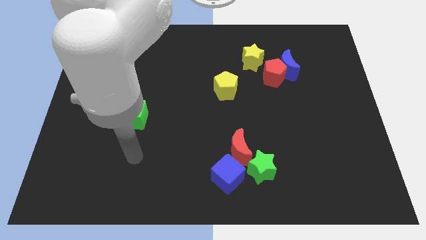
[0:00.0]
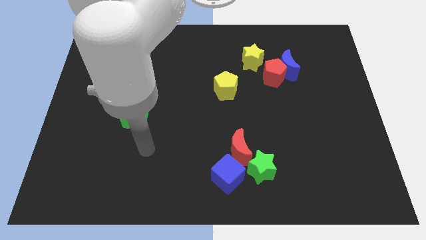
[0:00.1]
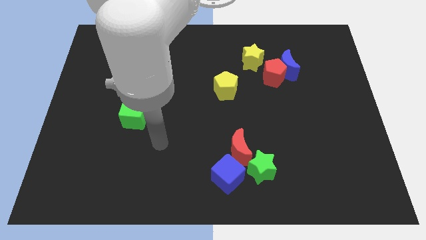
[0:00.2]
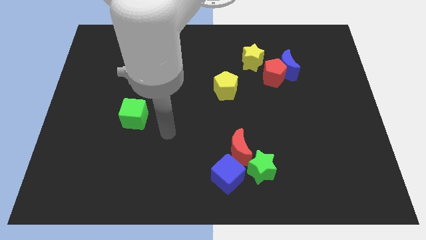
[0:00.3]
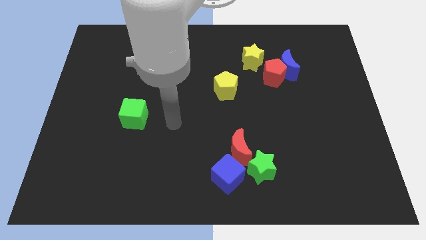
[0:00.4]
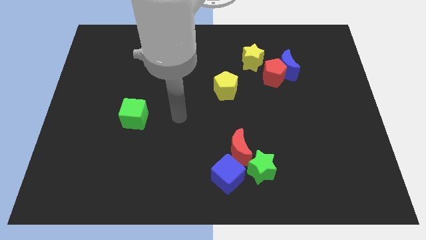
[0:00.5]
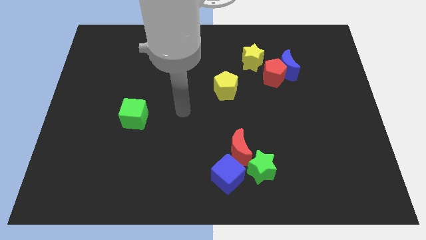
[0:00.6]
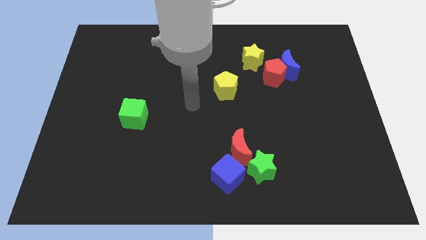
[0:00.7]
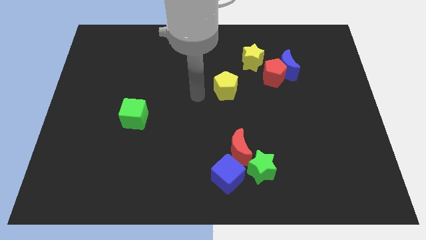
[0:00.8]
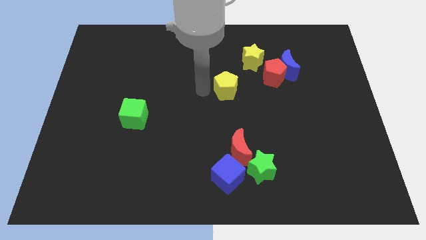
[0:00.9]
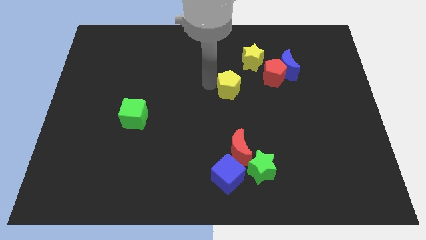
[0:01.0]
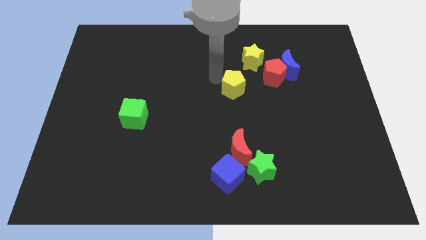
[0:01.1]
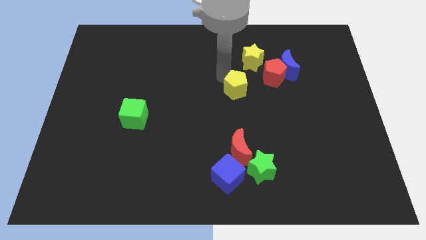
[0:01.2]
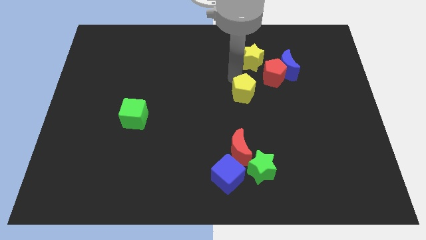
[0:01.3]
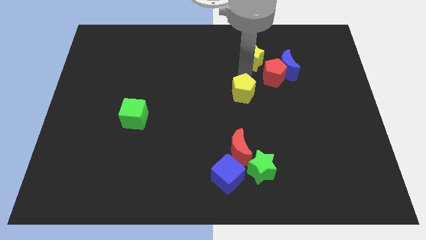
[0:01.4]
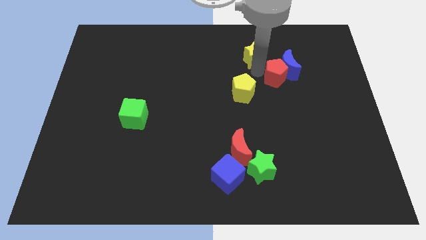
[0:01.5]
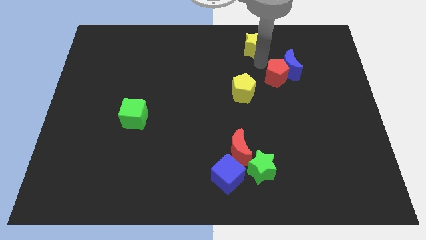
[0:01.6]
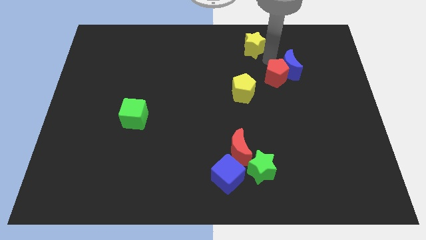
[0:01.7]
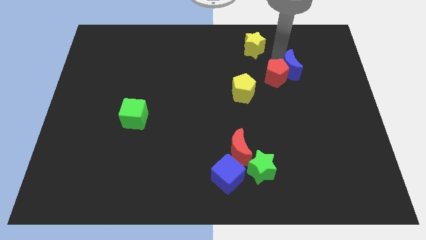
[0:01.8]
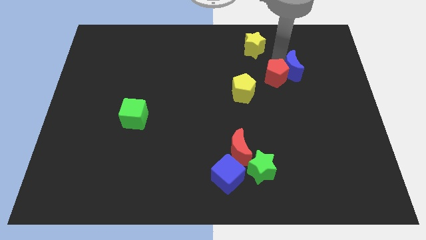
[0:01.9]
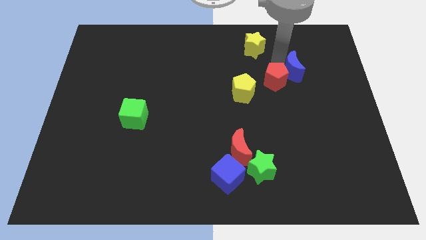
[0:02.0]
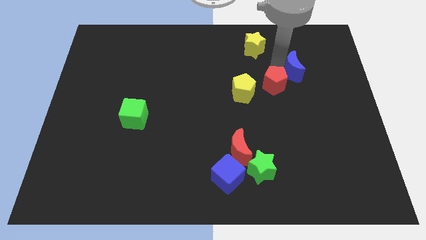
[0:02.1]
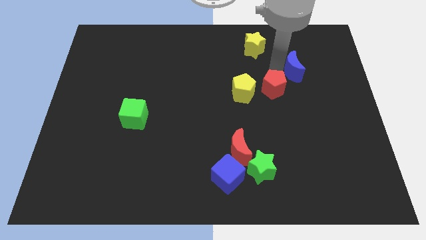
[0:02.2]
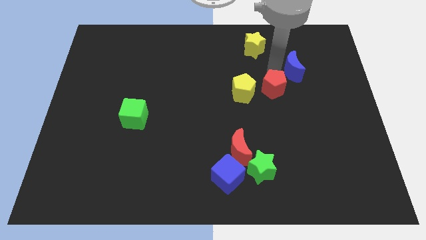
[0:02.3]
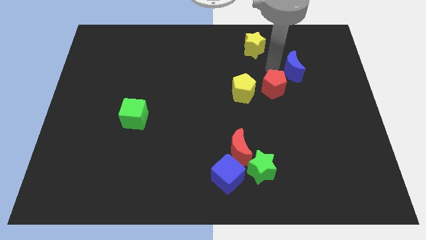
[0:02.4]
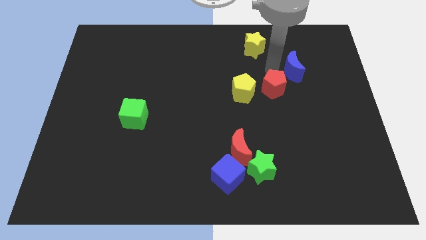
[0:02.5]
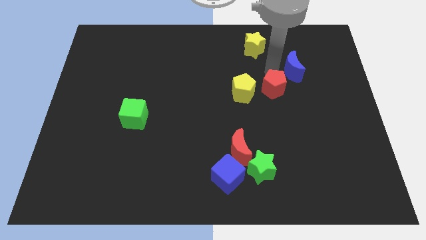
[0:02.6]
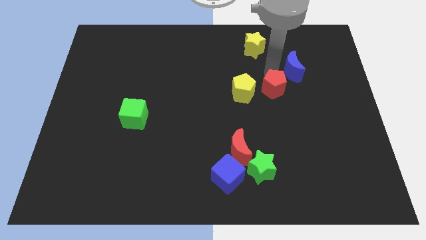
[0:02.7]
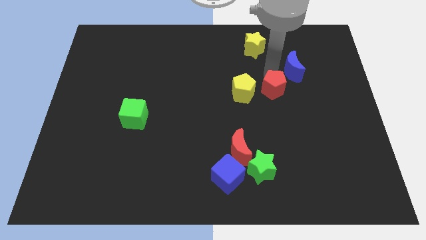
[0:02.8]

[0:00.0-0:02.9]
move the red pentagon away from the blue moon and yellow star

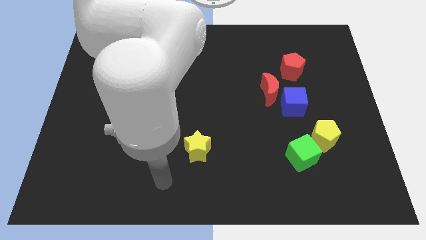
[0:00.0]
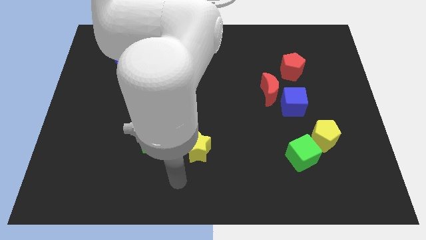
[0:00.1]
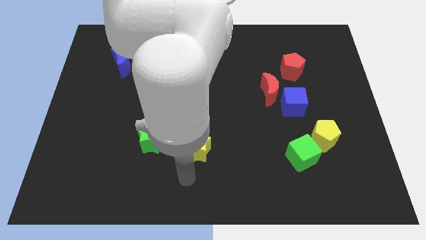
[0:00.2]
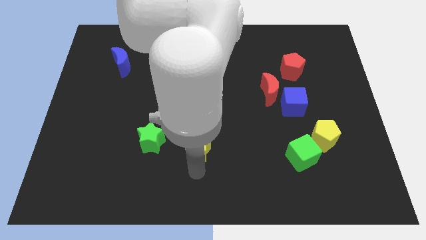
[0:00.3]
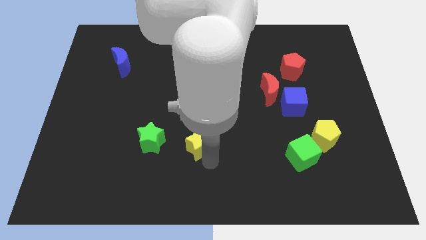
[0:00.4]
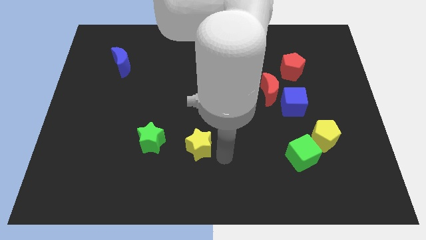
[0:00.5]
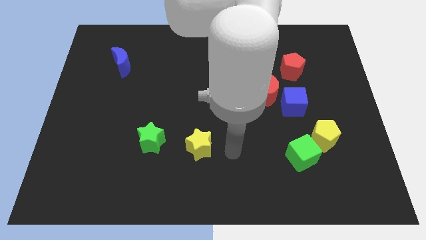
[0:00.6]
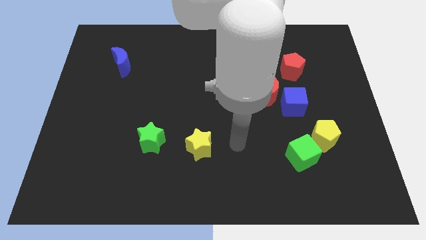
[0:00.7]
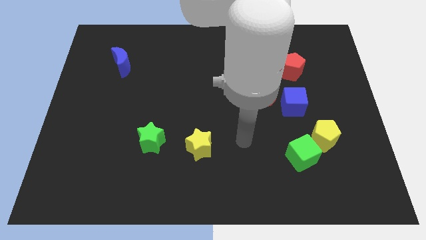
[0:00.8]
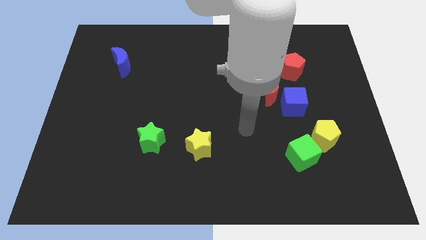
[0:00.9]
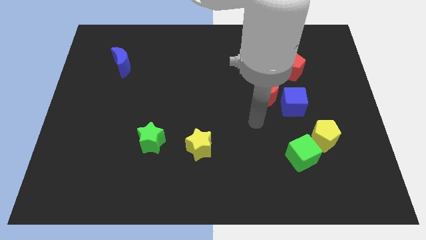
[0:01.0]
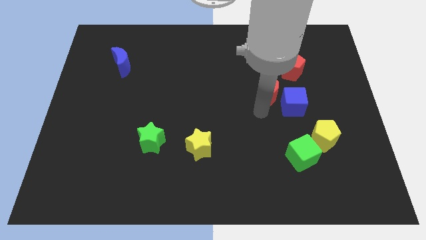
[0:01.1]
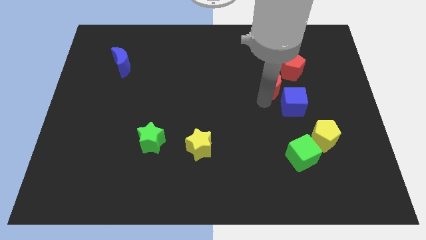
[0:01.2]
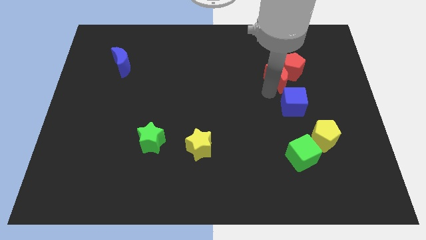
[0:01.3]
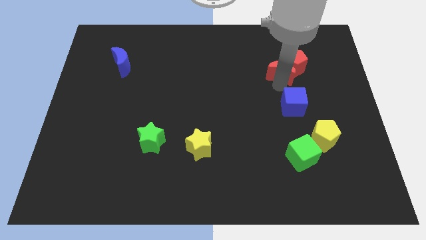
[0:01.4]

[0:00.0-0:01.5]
pull the blue cube apart from the red moon

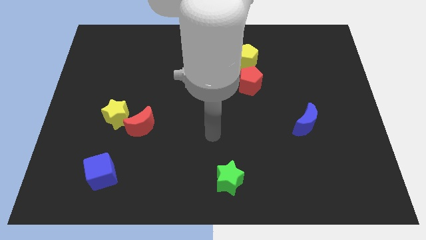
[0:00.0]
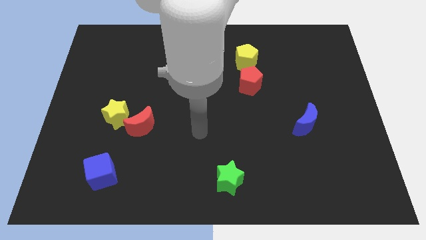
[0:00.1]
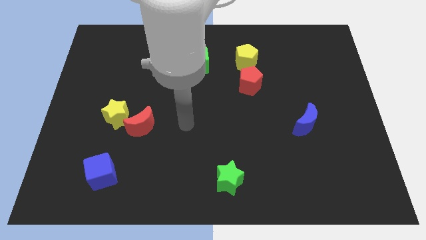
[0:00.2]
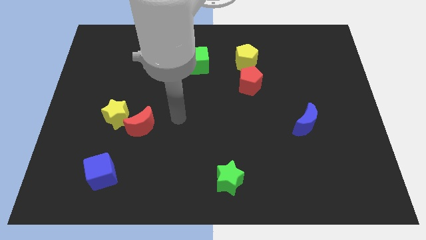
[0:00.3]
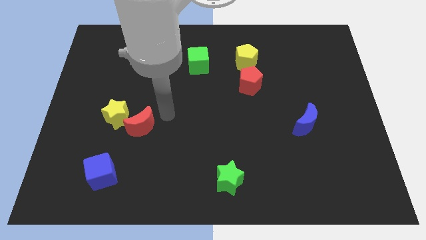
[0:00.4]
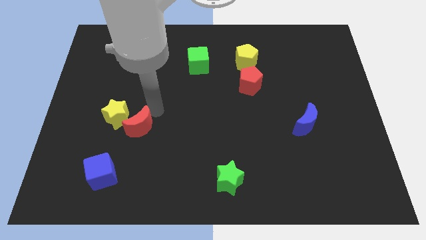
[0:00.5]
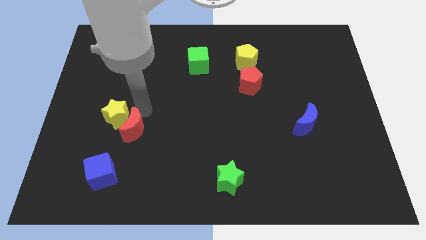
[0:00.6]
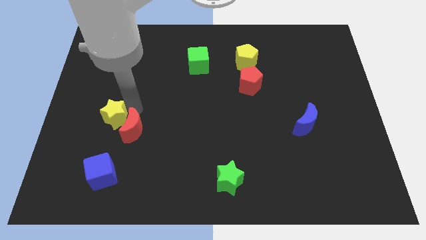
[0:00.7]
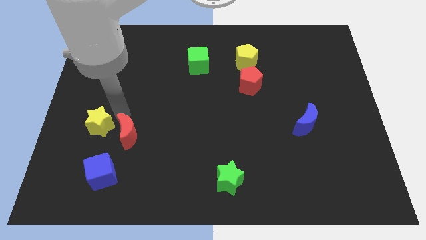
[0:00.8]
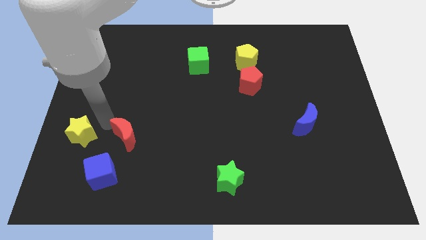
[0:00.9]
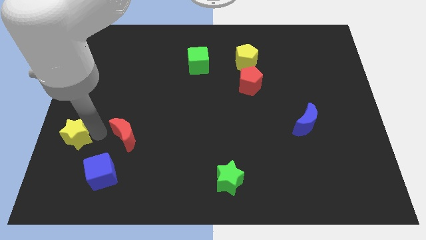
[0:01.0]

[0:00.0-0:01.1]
pull the red moon apart from the yellow star

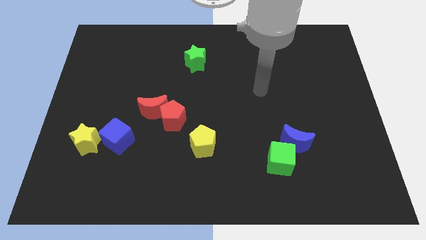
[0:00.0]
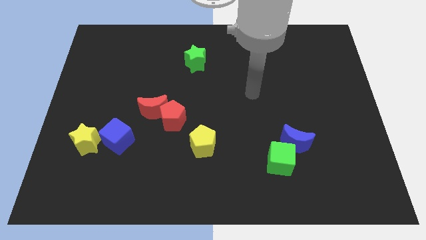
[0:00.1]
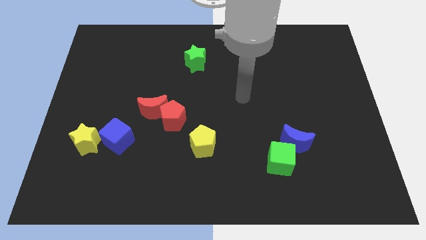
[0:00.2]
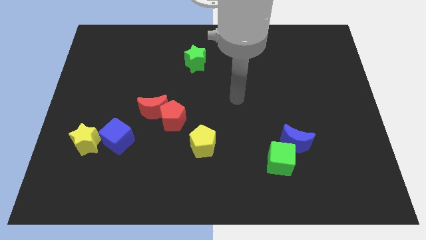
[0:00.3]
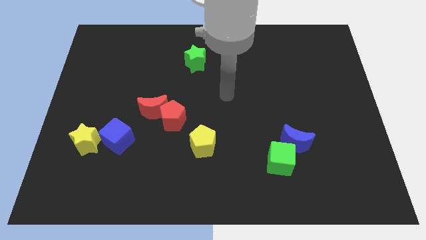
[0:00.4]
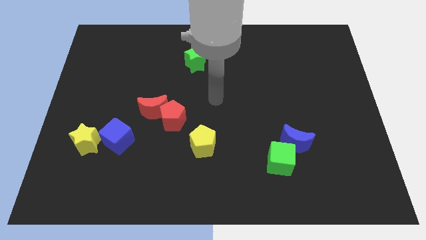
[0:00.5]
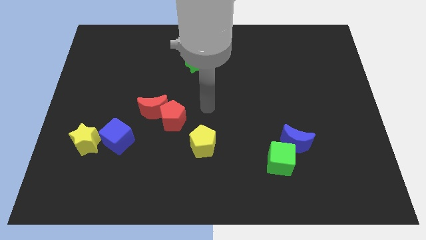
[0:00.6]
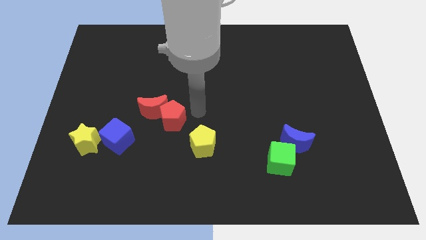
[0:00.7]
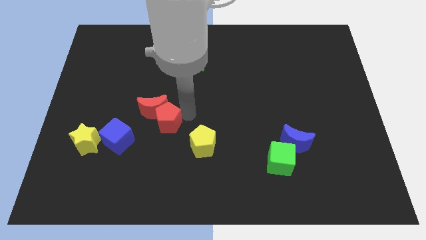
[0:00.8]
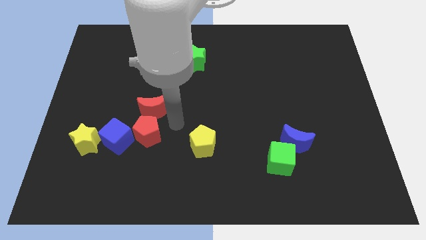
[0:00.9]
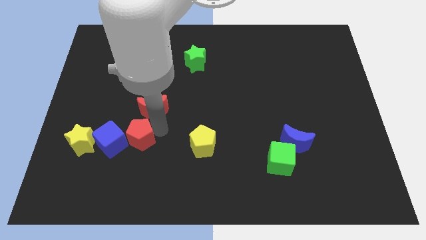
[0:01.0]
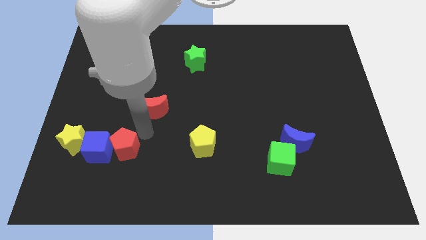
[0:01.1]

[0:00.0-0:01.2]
move the red moon away from the red pentagon

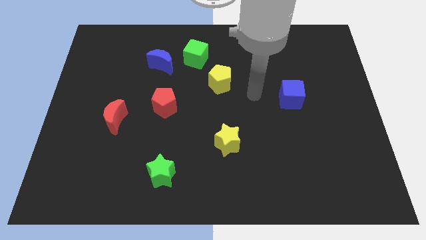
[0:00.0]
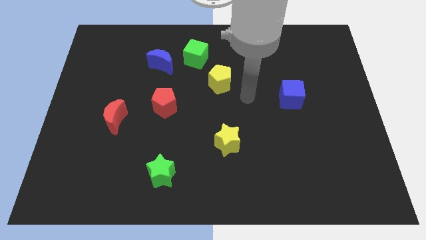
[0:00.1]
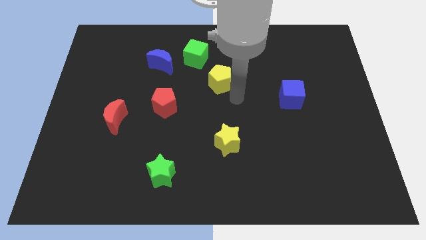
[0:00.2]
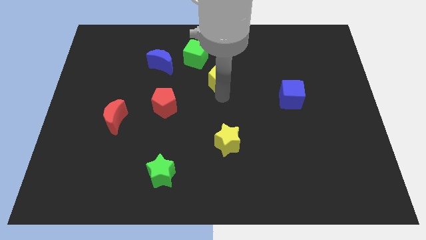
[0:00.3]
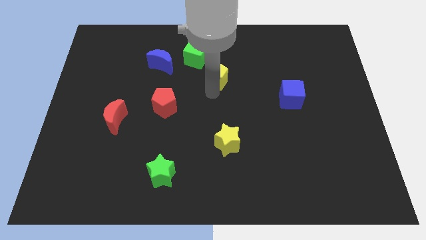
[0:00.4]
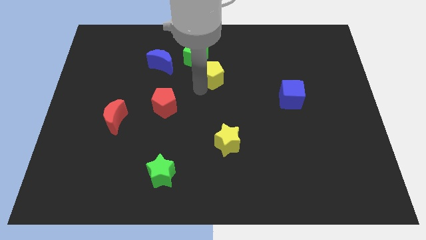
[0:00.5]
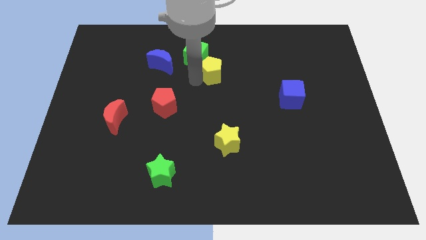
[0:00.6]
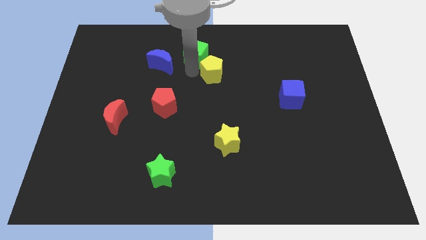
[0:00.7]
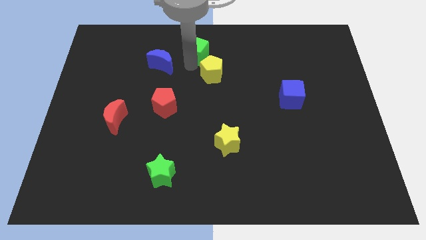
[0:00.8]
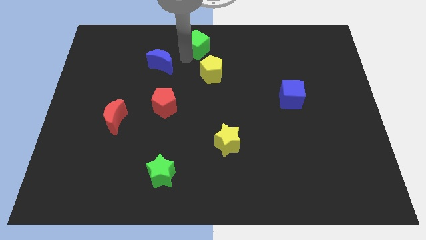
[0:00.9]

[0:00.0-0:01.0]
pull the blue moon apart from the green cube

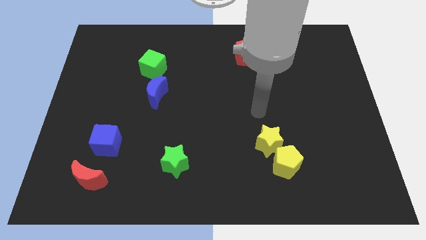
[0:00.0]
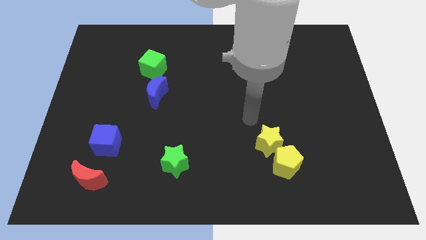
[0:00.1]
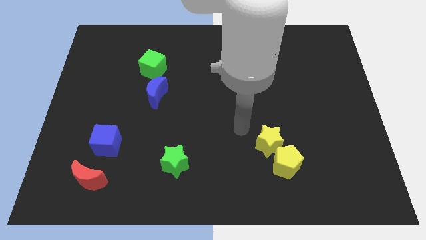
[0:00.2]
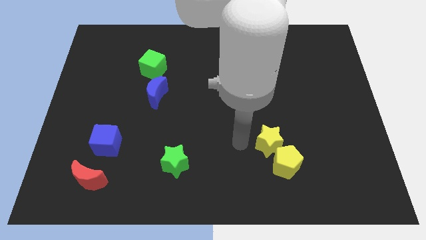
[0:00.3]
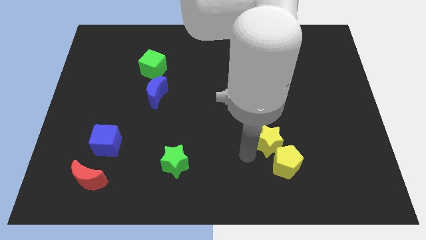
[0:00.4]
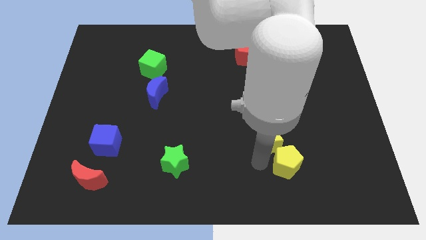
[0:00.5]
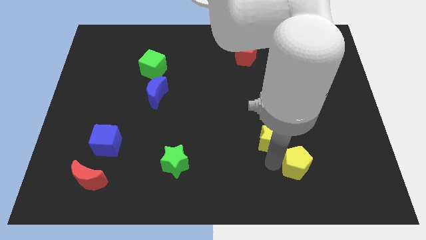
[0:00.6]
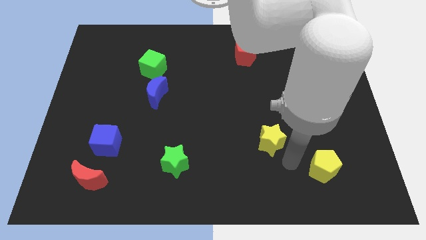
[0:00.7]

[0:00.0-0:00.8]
separate the yellow star from the yellow pentagon

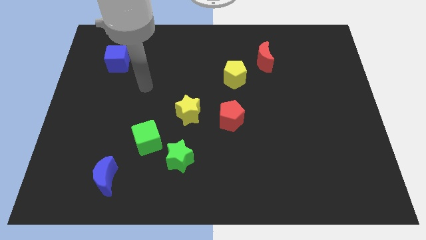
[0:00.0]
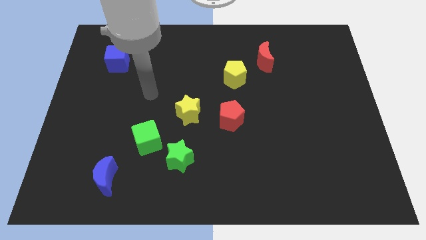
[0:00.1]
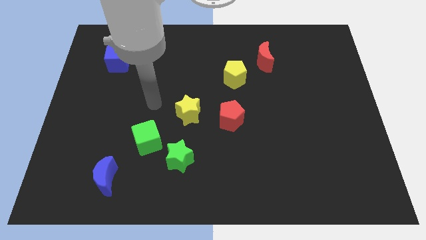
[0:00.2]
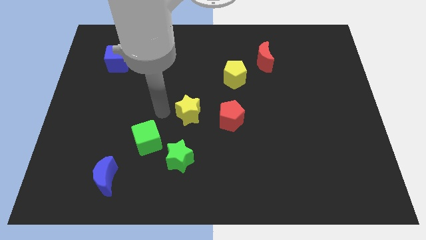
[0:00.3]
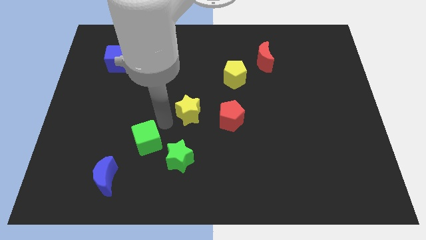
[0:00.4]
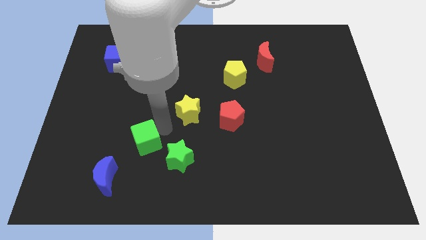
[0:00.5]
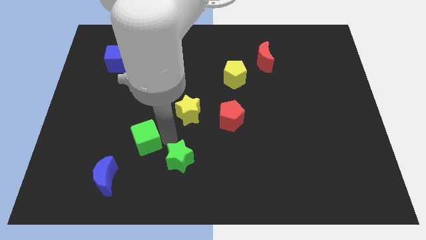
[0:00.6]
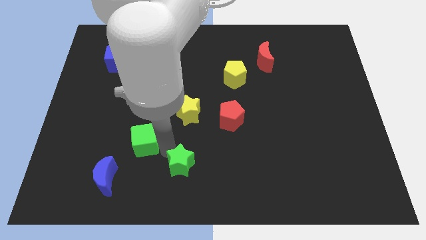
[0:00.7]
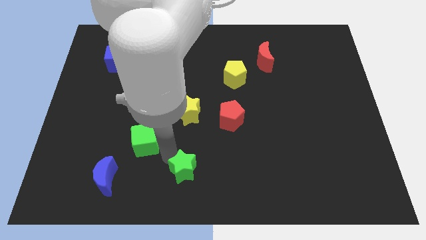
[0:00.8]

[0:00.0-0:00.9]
pull the green cube apart from the green star
